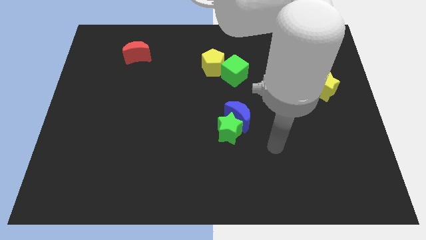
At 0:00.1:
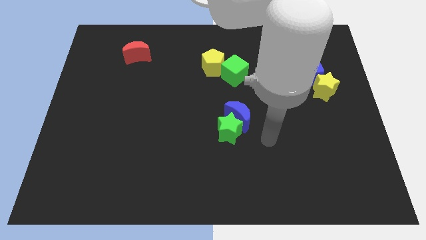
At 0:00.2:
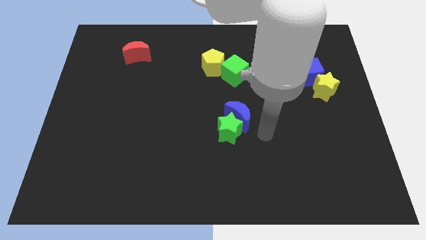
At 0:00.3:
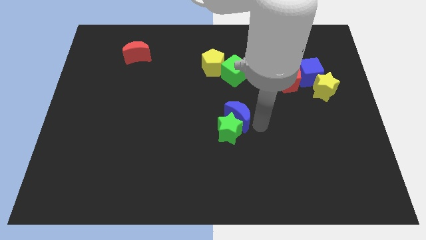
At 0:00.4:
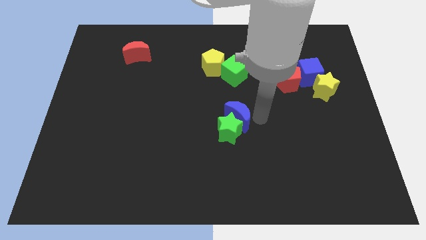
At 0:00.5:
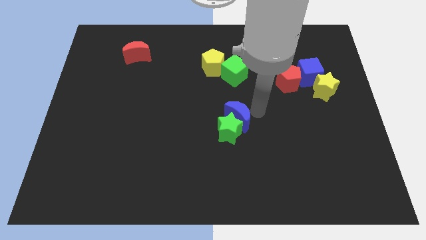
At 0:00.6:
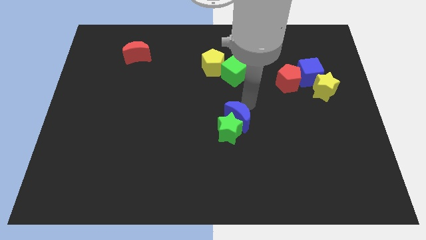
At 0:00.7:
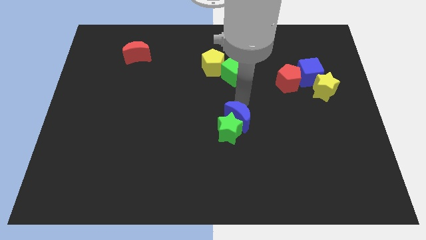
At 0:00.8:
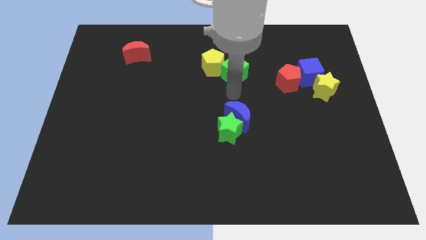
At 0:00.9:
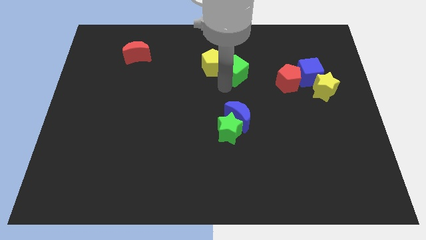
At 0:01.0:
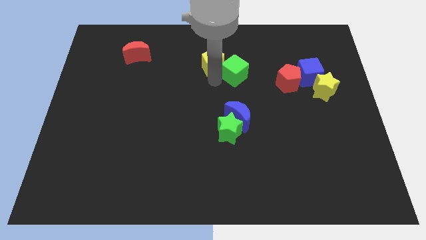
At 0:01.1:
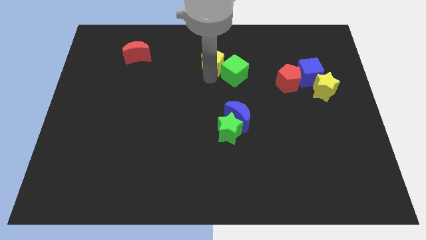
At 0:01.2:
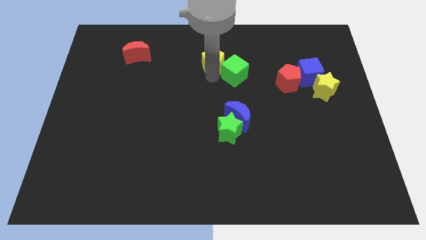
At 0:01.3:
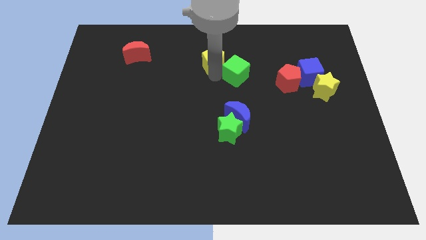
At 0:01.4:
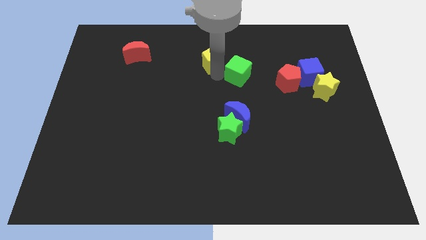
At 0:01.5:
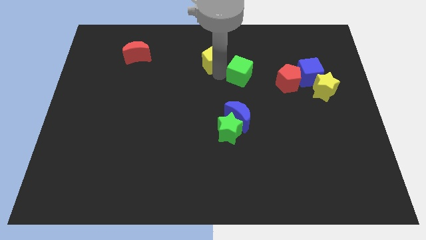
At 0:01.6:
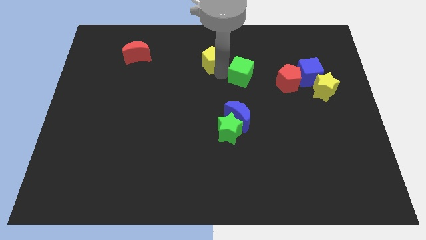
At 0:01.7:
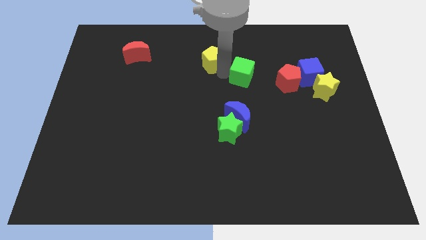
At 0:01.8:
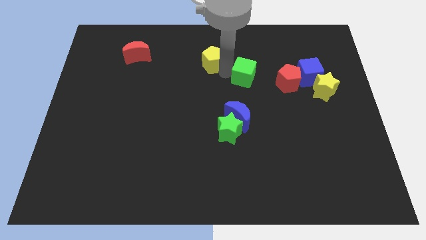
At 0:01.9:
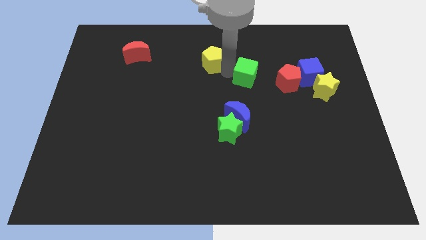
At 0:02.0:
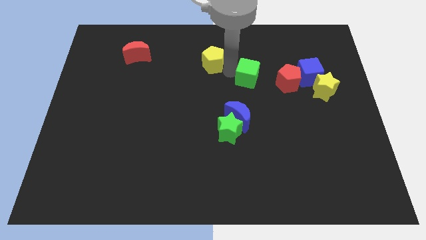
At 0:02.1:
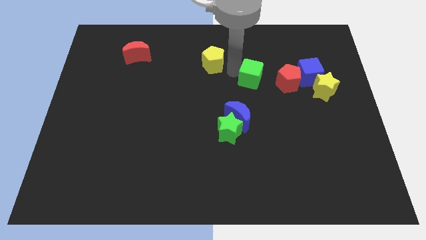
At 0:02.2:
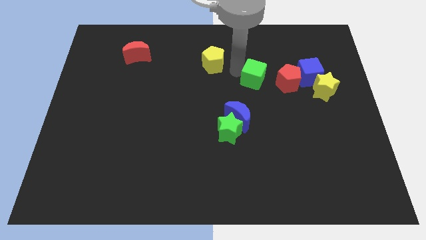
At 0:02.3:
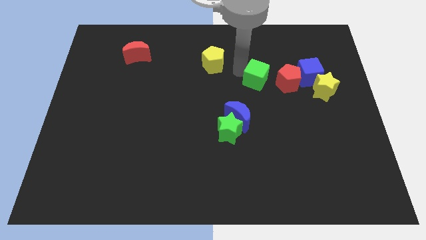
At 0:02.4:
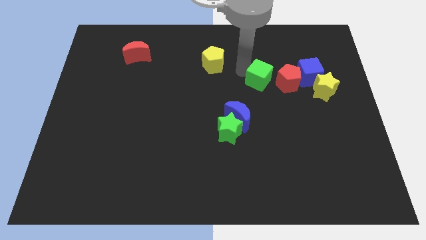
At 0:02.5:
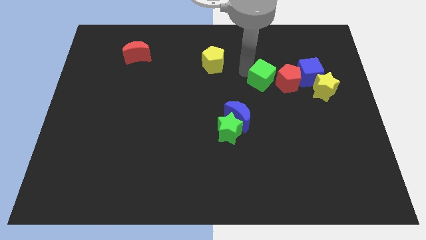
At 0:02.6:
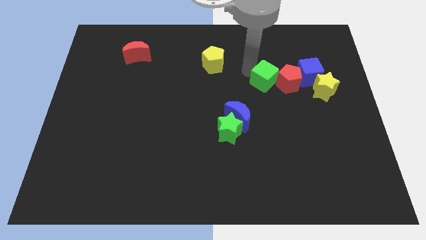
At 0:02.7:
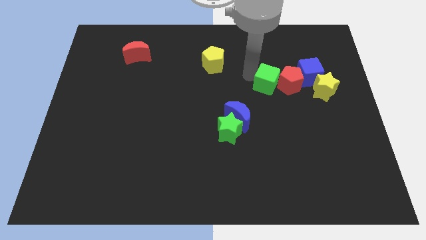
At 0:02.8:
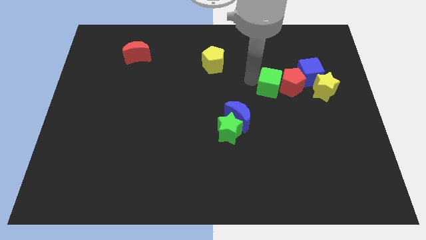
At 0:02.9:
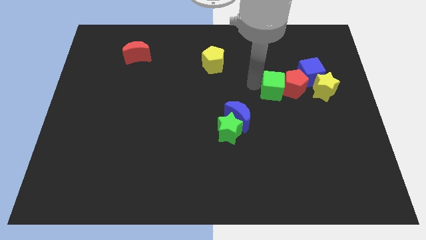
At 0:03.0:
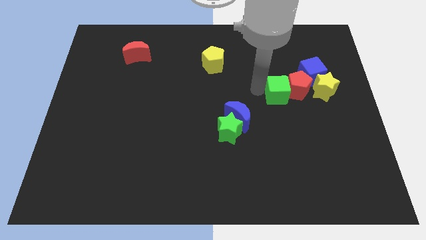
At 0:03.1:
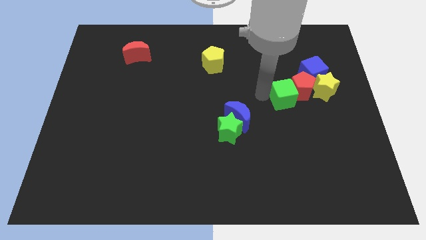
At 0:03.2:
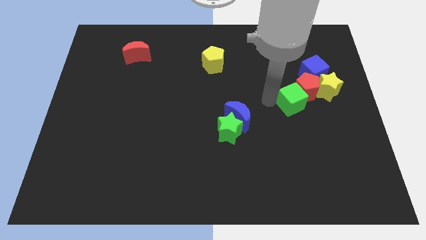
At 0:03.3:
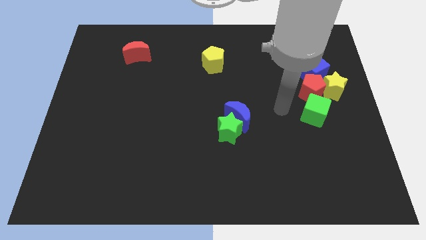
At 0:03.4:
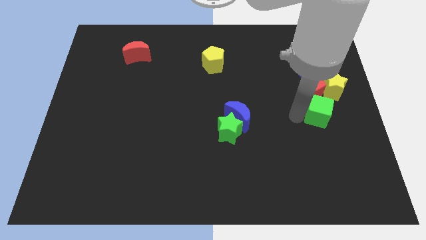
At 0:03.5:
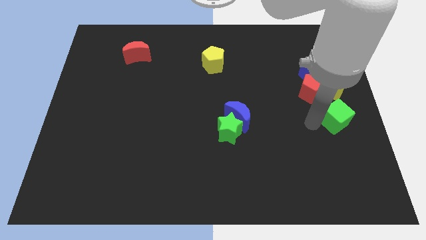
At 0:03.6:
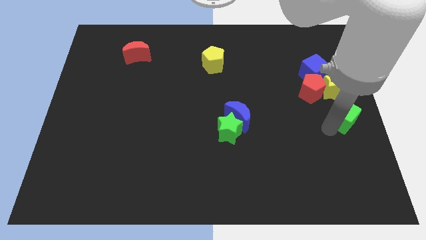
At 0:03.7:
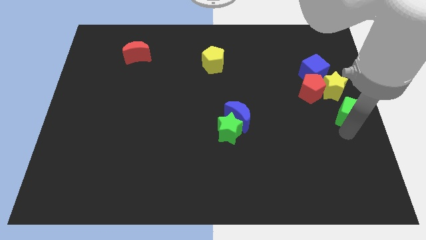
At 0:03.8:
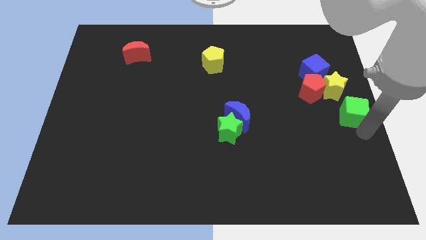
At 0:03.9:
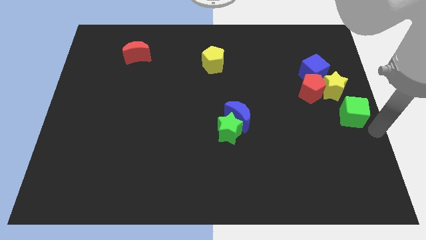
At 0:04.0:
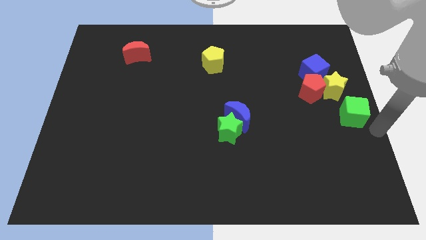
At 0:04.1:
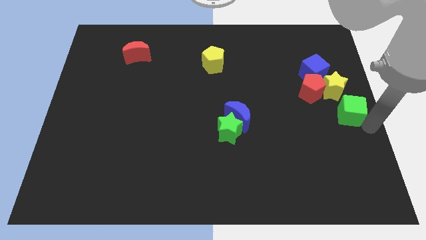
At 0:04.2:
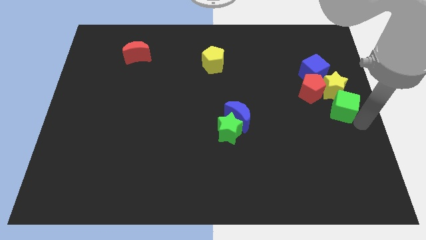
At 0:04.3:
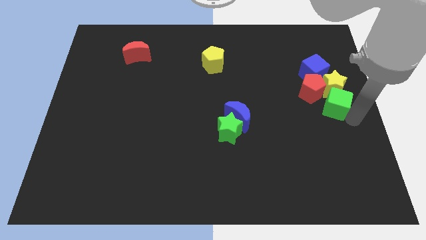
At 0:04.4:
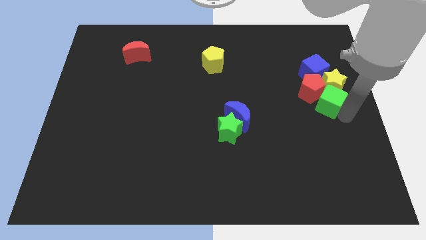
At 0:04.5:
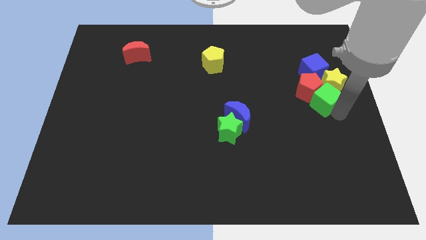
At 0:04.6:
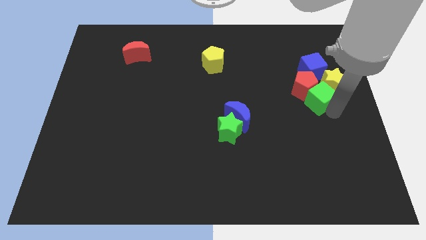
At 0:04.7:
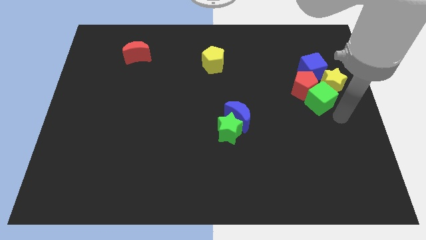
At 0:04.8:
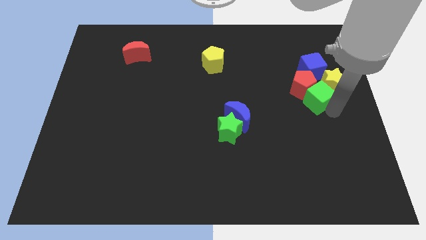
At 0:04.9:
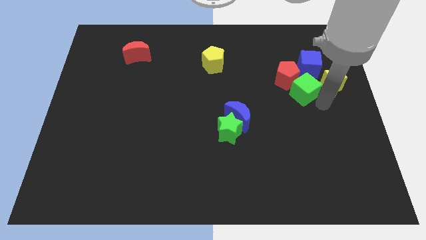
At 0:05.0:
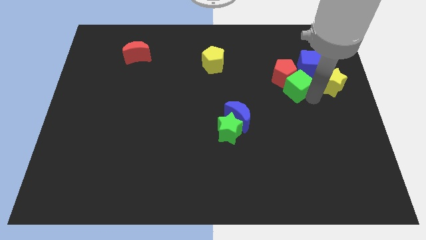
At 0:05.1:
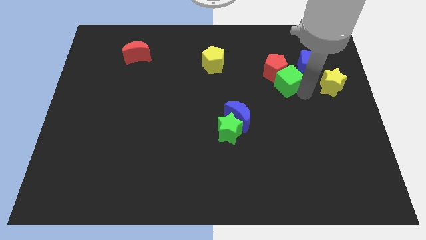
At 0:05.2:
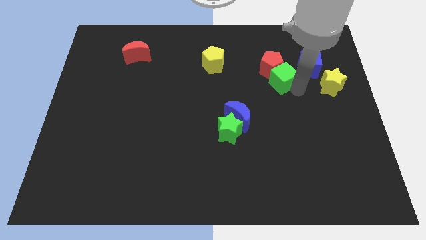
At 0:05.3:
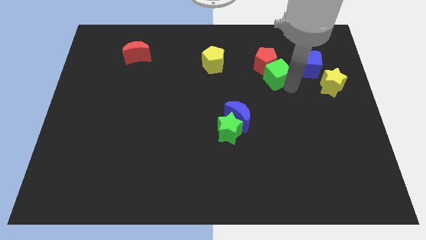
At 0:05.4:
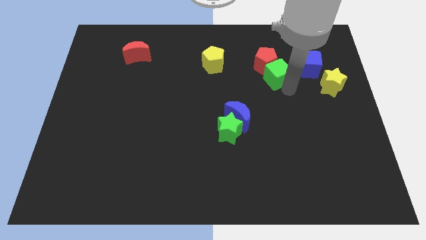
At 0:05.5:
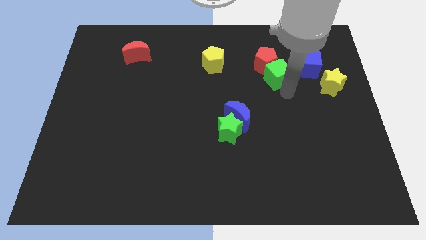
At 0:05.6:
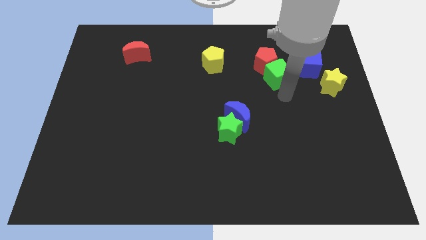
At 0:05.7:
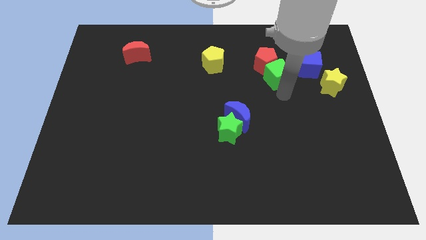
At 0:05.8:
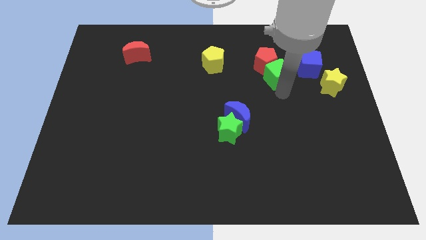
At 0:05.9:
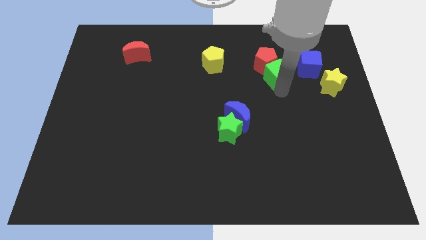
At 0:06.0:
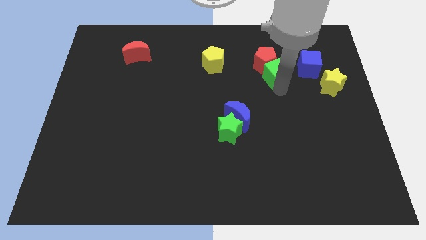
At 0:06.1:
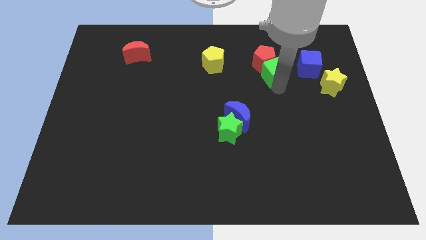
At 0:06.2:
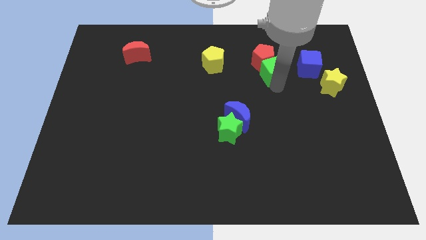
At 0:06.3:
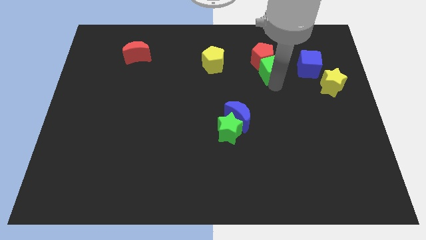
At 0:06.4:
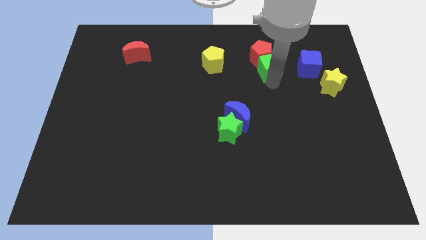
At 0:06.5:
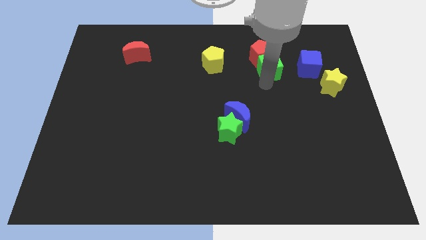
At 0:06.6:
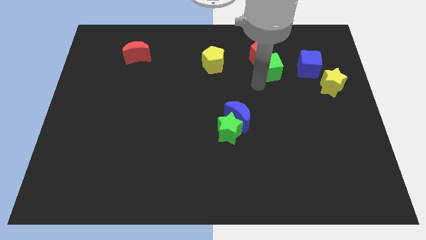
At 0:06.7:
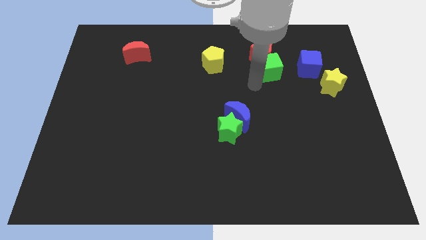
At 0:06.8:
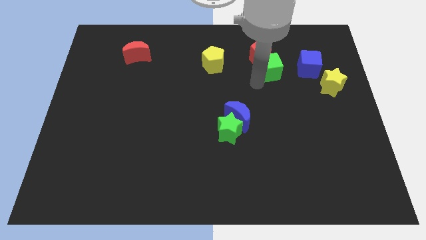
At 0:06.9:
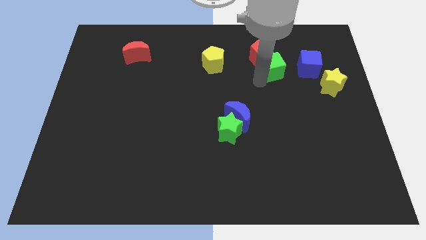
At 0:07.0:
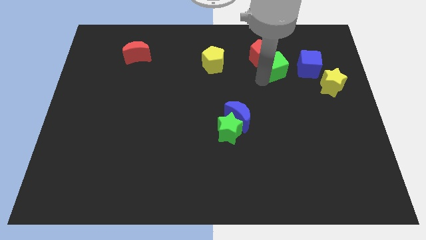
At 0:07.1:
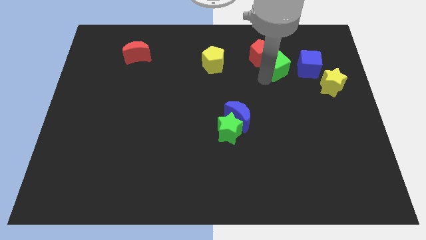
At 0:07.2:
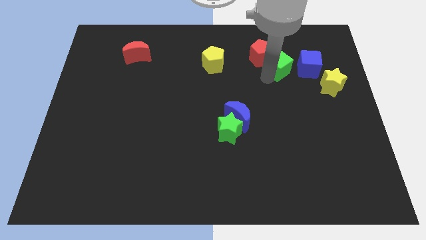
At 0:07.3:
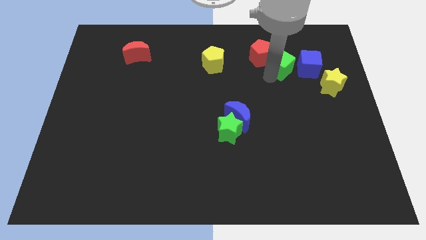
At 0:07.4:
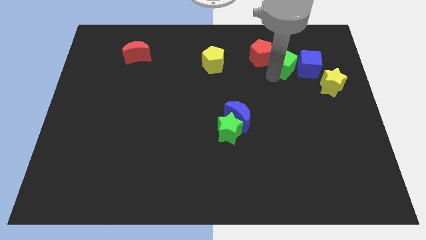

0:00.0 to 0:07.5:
slide the green cube to the top left of the blue cube
